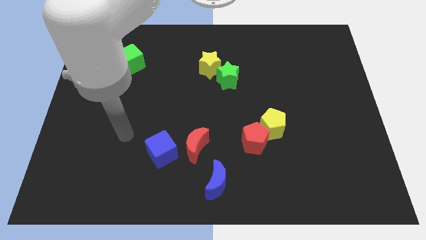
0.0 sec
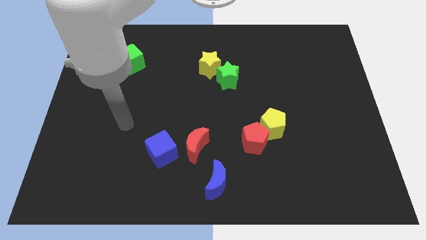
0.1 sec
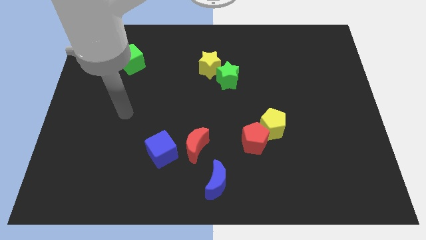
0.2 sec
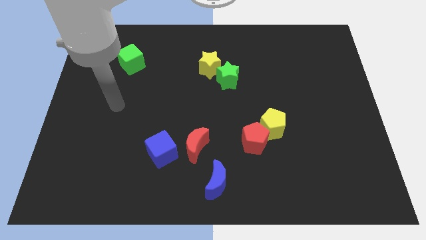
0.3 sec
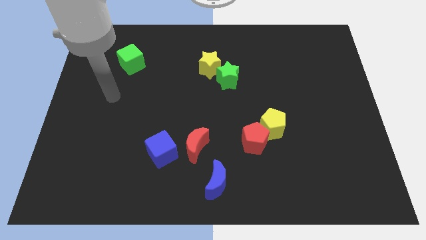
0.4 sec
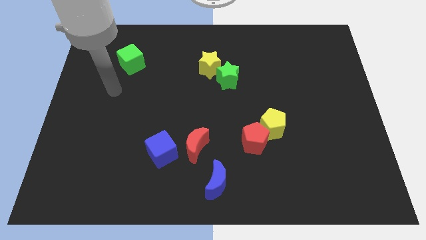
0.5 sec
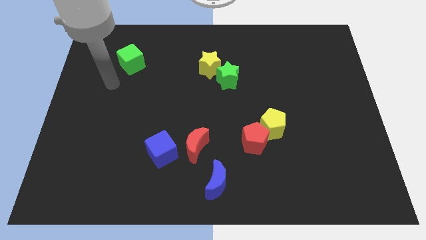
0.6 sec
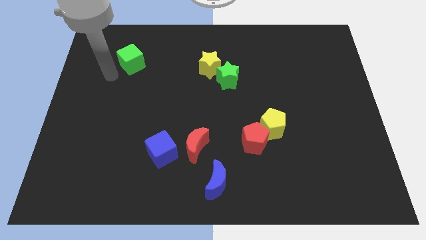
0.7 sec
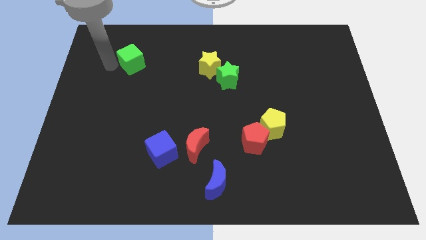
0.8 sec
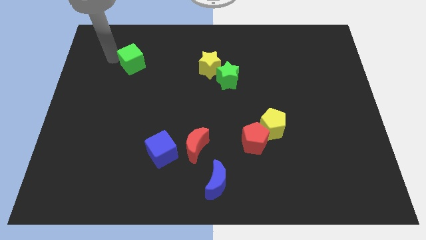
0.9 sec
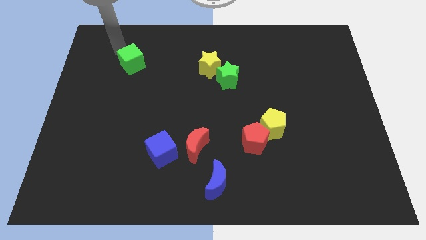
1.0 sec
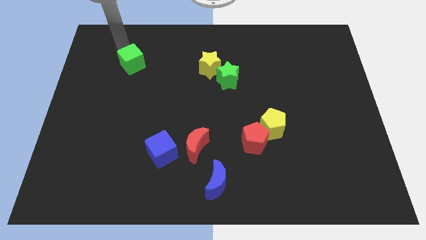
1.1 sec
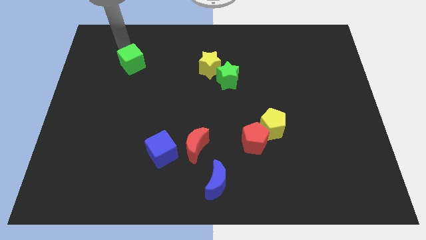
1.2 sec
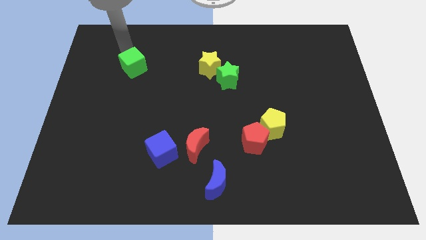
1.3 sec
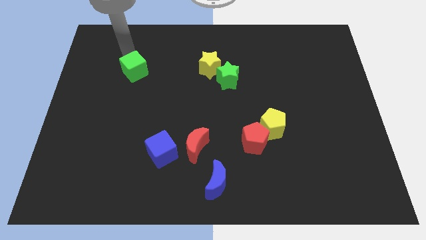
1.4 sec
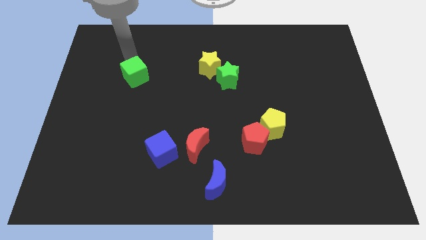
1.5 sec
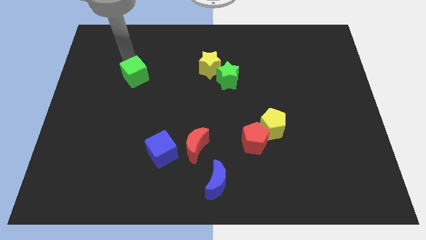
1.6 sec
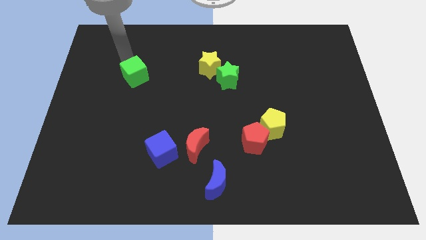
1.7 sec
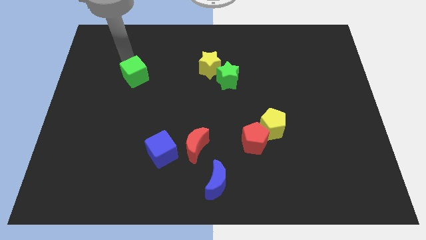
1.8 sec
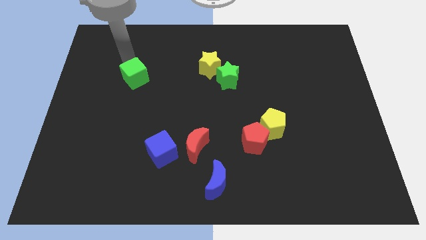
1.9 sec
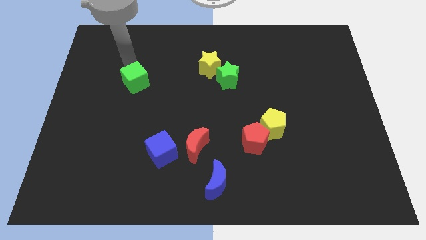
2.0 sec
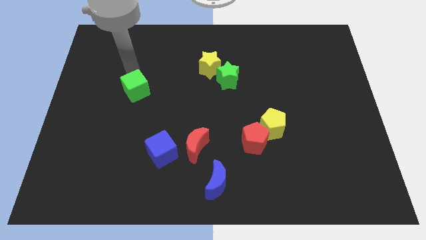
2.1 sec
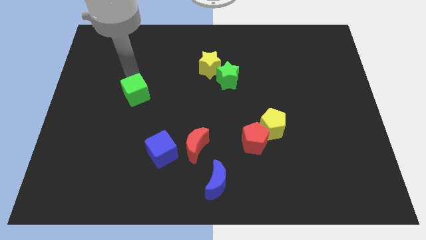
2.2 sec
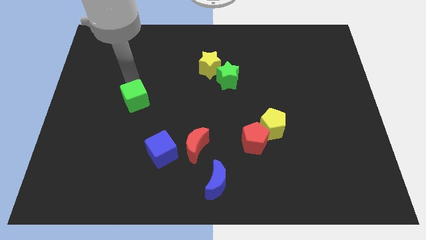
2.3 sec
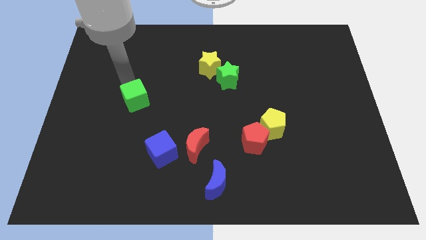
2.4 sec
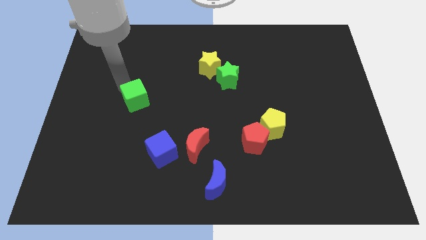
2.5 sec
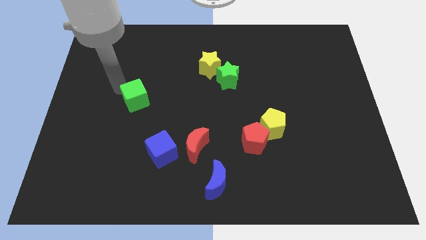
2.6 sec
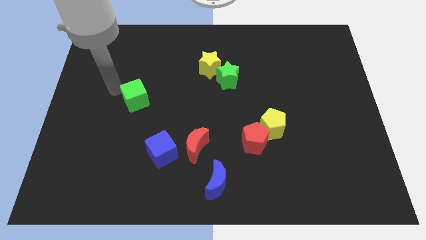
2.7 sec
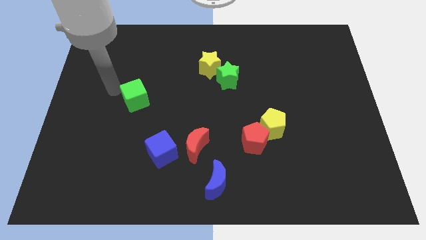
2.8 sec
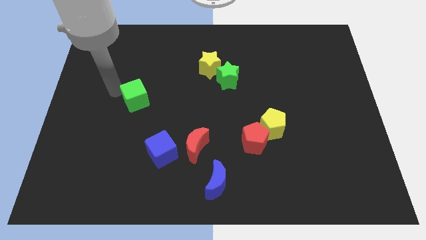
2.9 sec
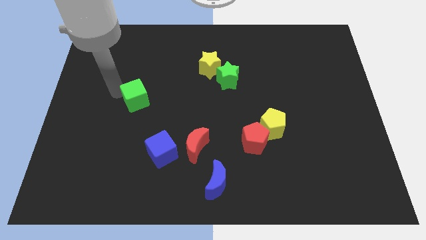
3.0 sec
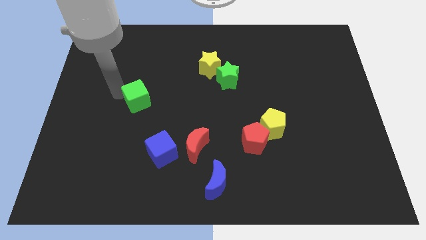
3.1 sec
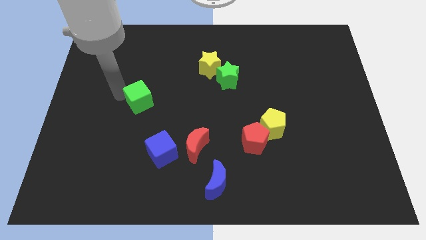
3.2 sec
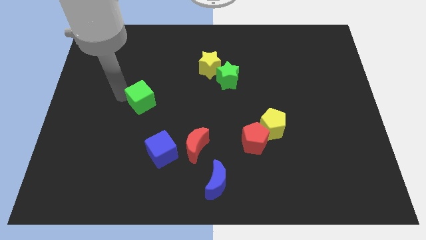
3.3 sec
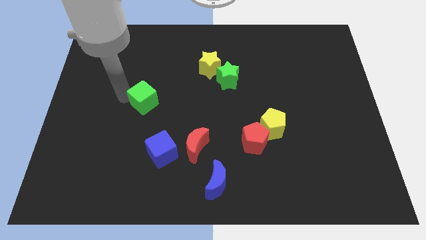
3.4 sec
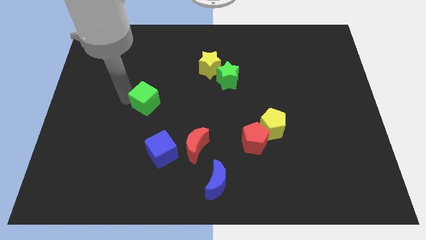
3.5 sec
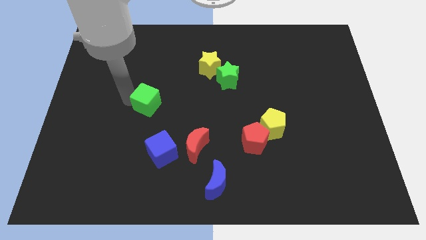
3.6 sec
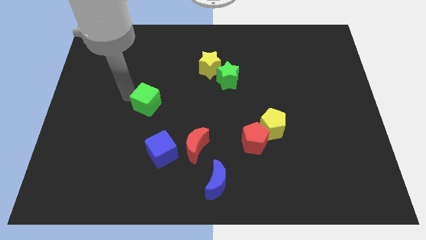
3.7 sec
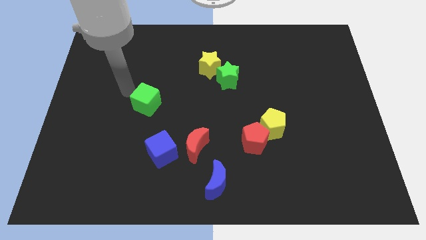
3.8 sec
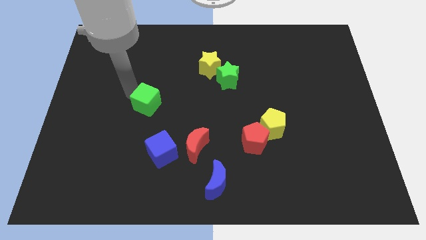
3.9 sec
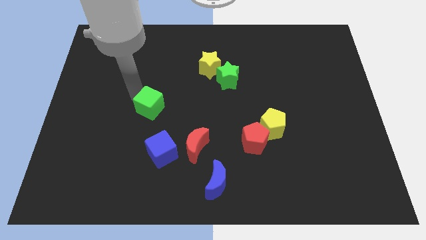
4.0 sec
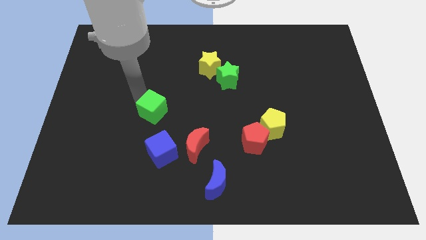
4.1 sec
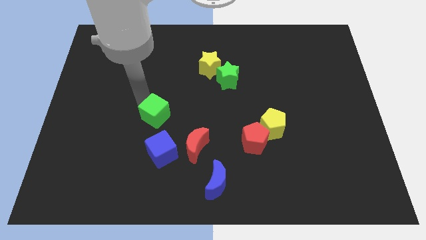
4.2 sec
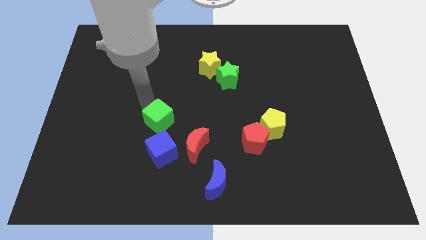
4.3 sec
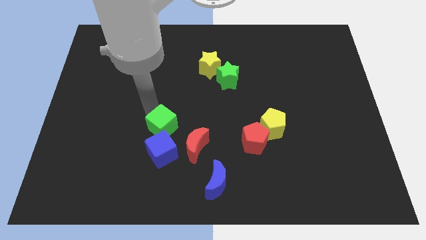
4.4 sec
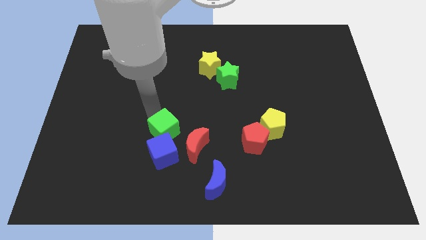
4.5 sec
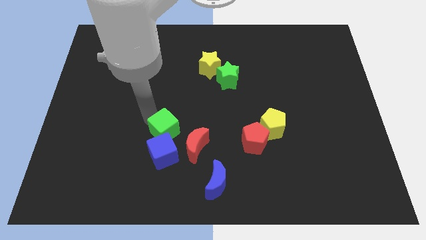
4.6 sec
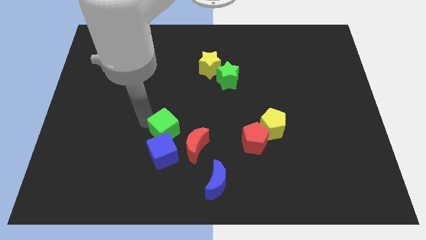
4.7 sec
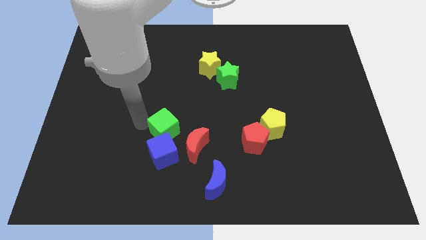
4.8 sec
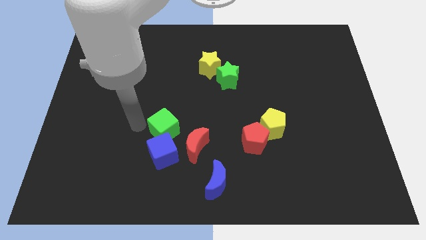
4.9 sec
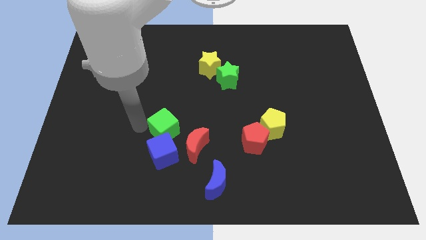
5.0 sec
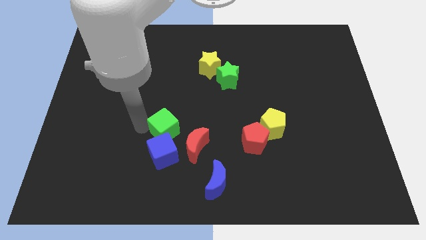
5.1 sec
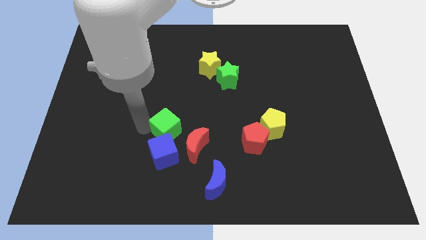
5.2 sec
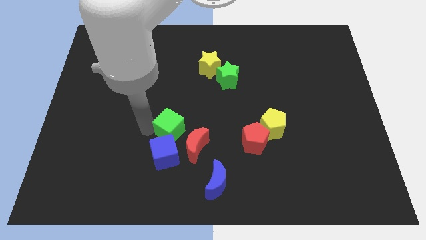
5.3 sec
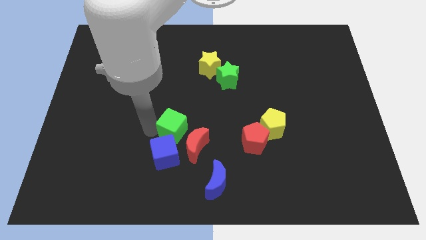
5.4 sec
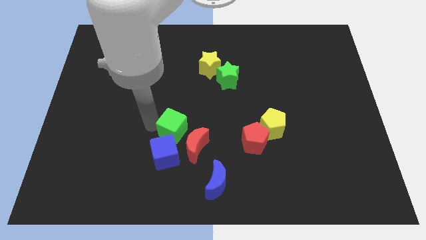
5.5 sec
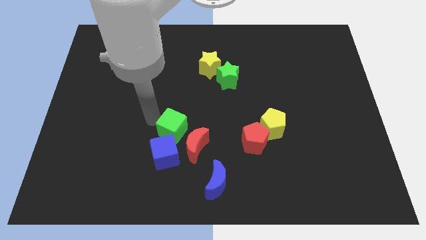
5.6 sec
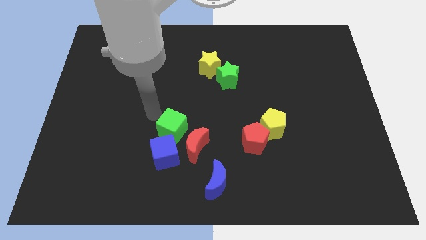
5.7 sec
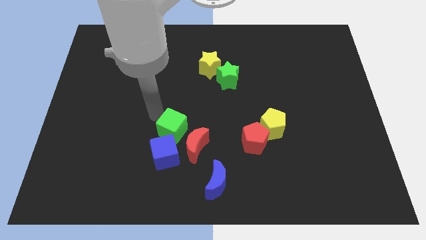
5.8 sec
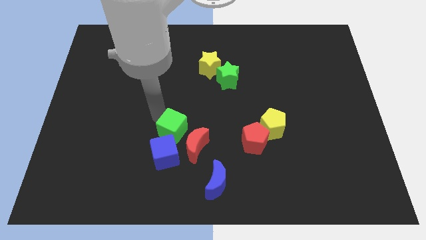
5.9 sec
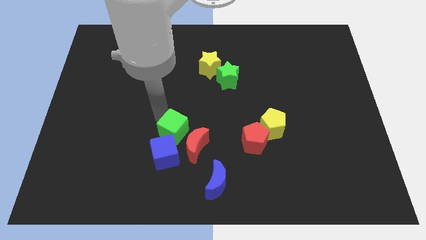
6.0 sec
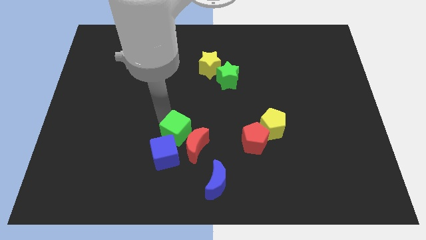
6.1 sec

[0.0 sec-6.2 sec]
slide the green cube to the red moon
